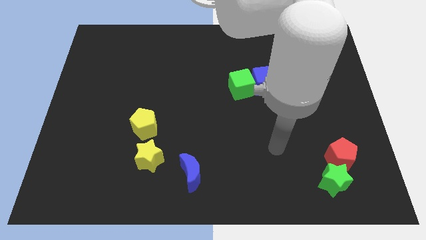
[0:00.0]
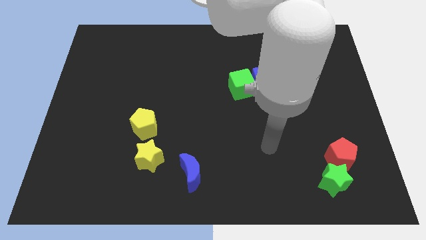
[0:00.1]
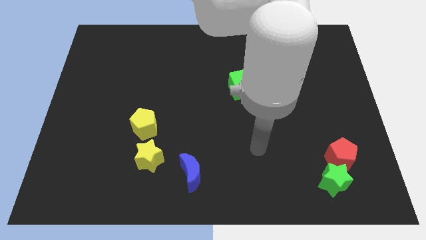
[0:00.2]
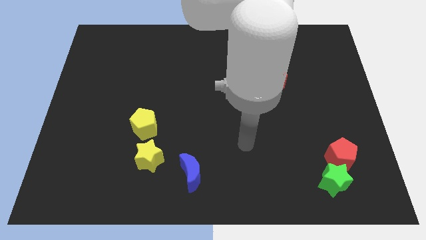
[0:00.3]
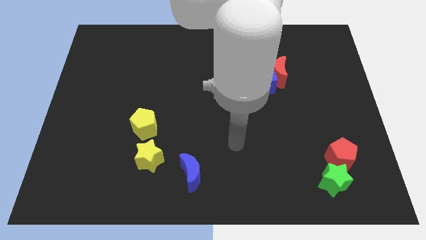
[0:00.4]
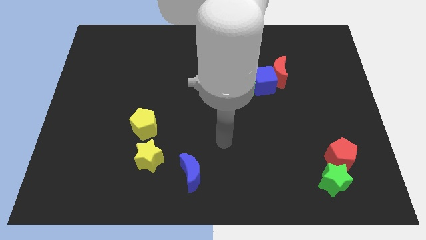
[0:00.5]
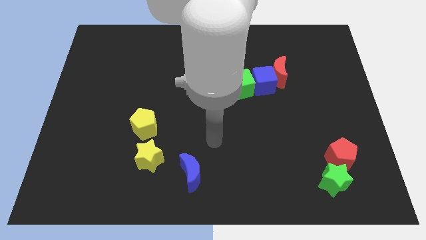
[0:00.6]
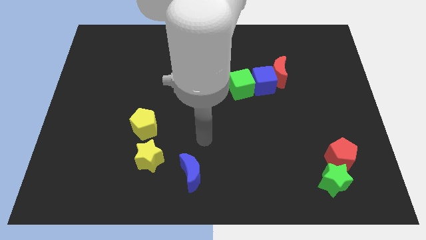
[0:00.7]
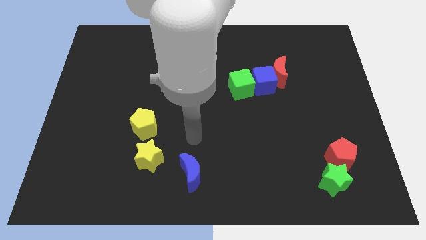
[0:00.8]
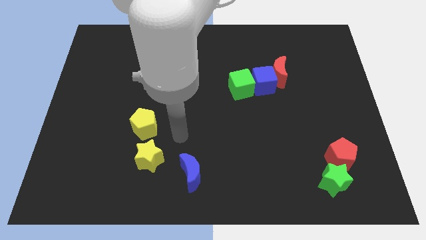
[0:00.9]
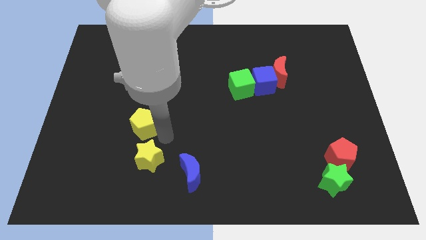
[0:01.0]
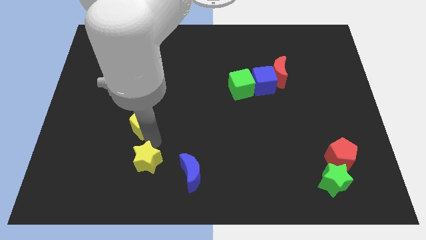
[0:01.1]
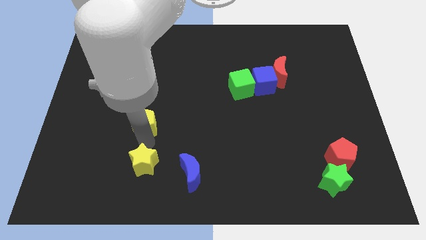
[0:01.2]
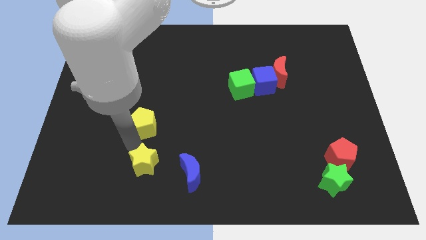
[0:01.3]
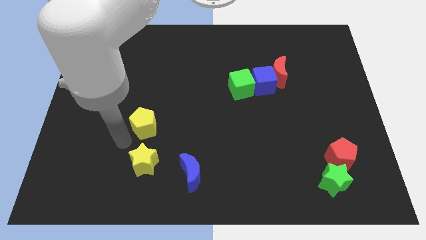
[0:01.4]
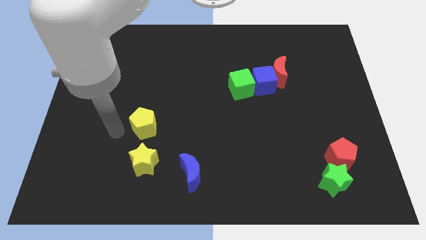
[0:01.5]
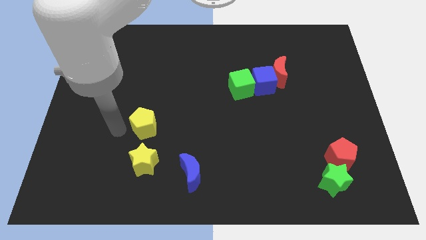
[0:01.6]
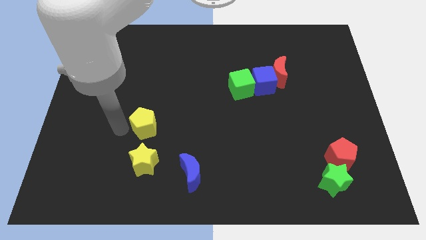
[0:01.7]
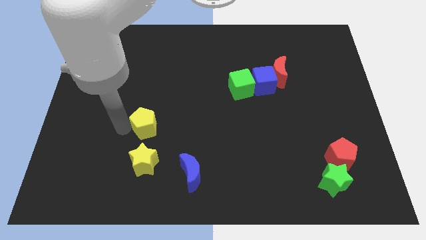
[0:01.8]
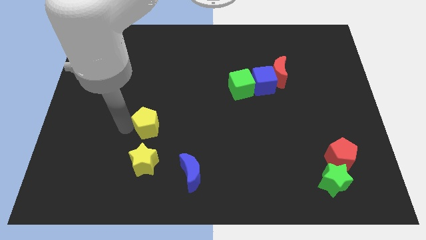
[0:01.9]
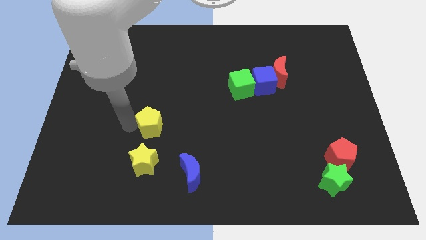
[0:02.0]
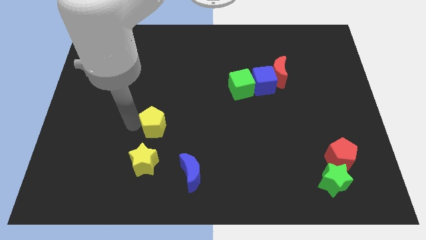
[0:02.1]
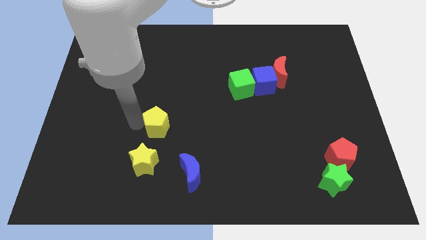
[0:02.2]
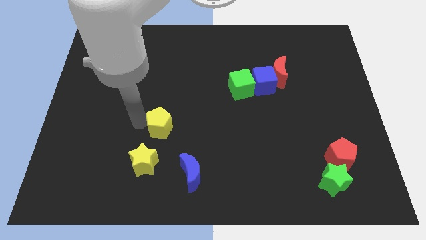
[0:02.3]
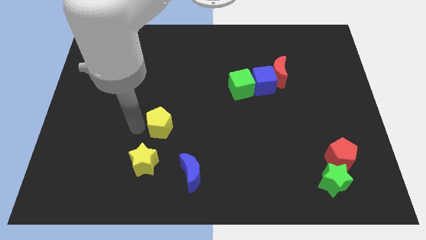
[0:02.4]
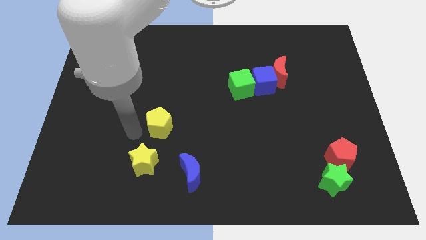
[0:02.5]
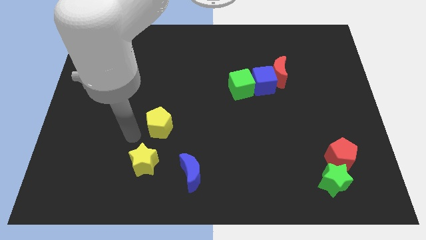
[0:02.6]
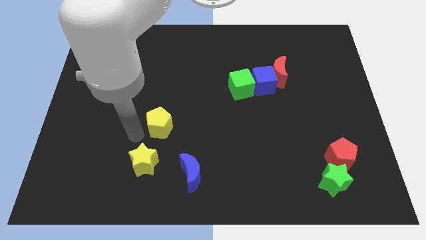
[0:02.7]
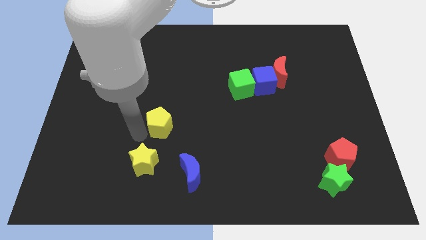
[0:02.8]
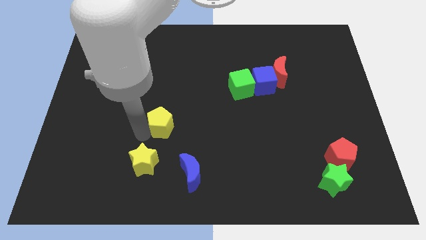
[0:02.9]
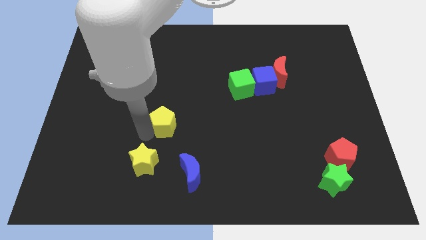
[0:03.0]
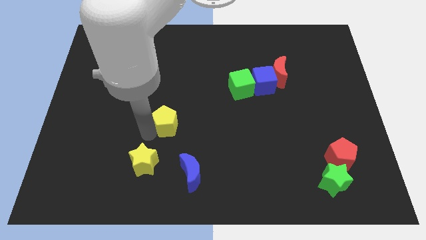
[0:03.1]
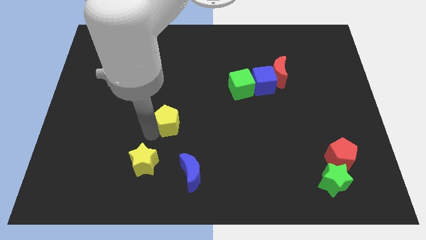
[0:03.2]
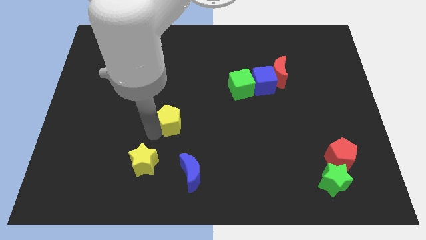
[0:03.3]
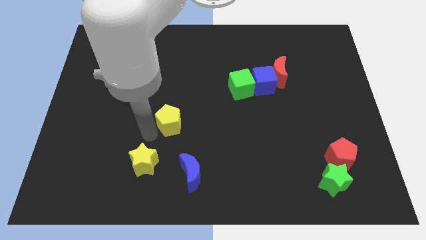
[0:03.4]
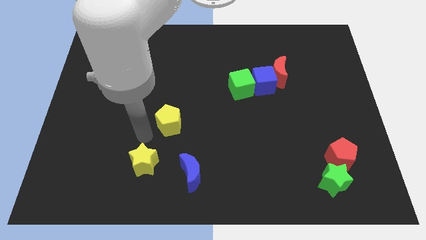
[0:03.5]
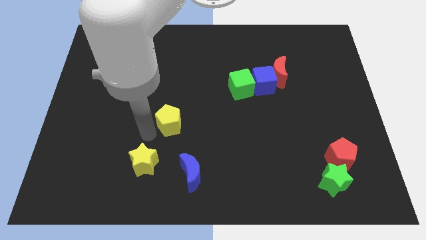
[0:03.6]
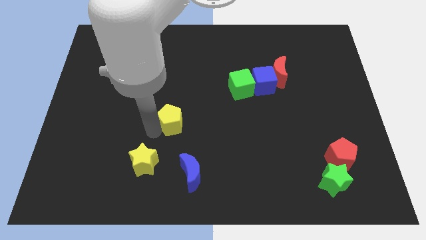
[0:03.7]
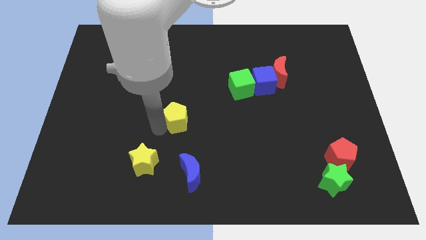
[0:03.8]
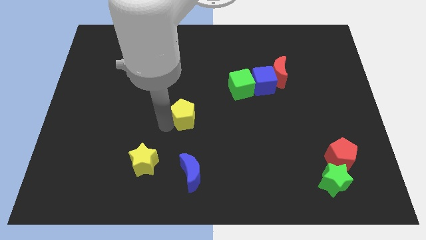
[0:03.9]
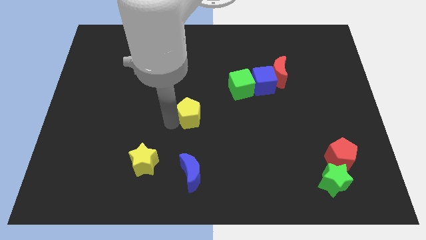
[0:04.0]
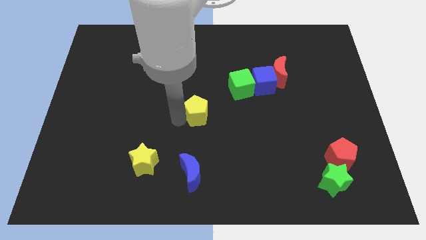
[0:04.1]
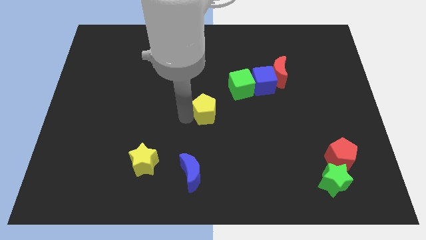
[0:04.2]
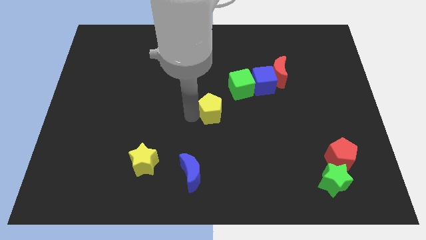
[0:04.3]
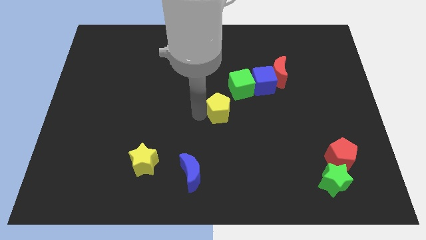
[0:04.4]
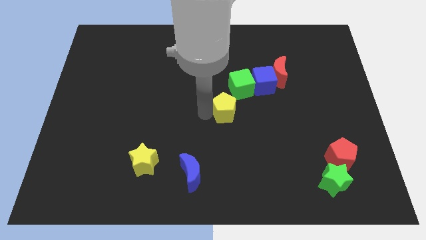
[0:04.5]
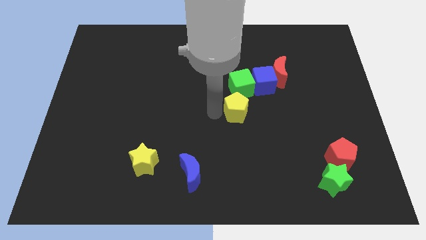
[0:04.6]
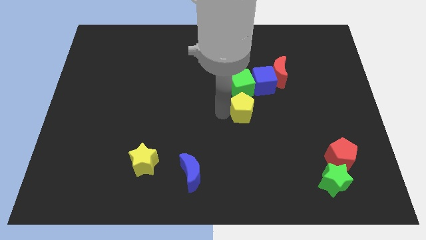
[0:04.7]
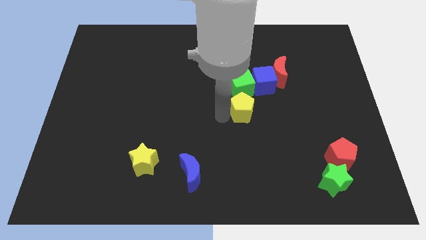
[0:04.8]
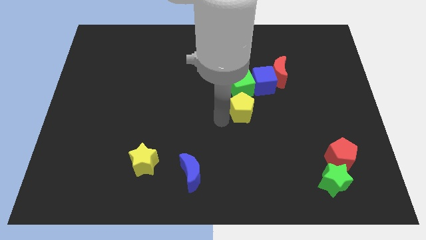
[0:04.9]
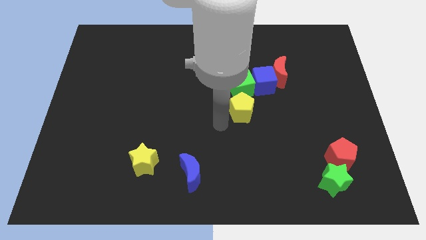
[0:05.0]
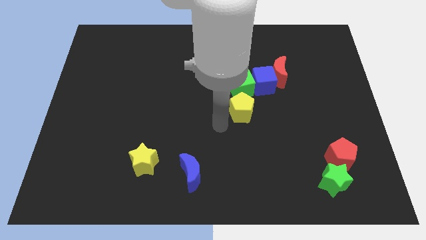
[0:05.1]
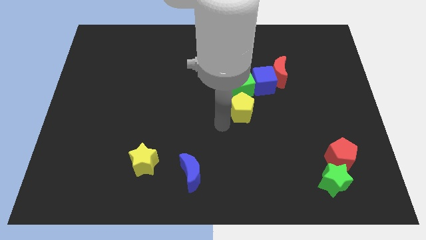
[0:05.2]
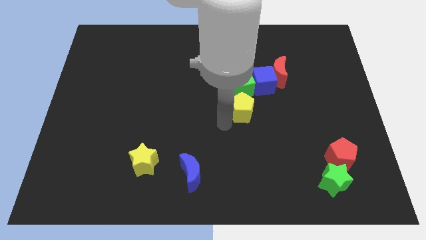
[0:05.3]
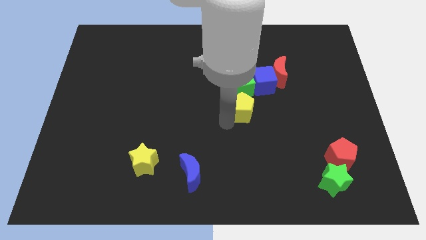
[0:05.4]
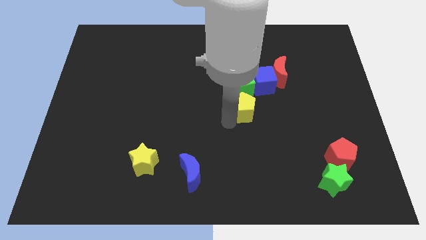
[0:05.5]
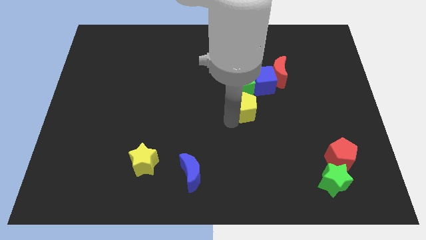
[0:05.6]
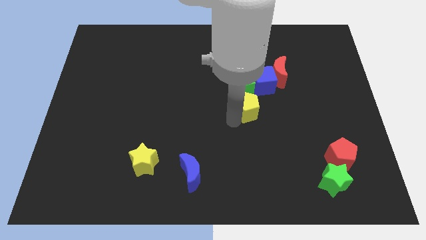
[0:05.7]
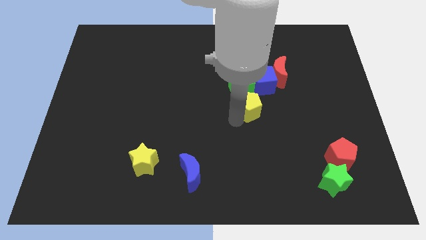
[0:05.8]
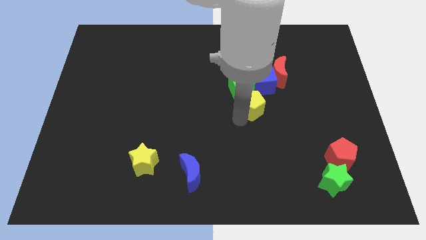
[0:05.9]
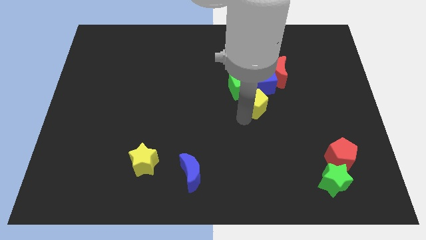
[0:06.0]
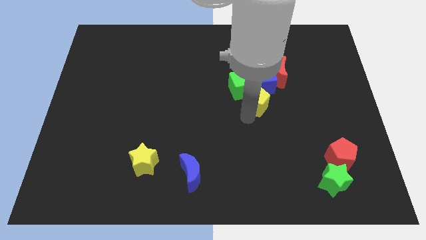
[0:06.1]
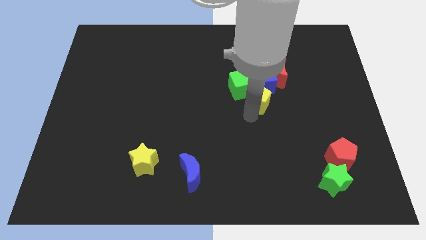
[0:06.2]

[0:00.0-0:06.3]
move the yellow pentagon towards the blue cube

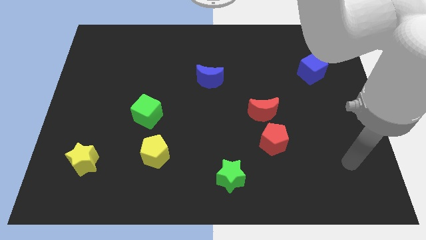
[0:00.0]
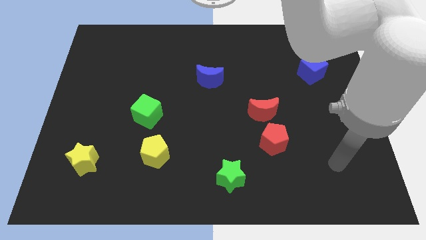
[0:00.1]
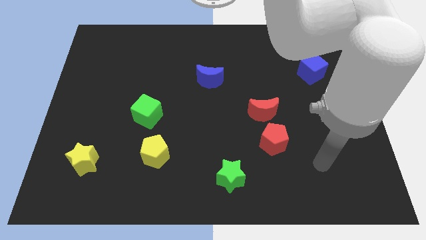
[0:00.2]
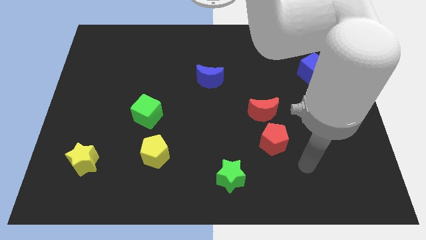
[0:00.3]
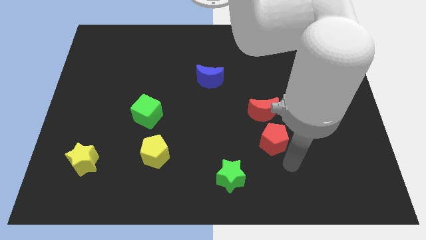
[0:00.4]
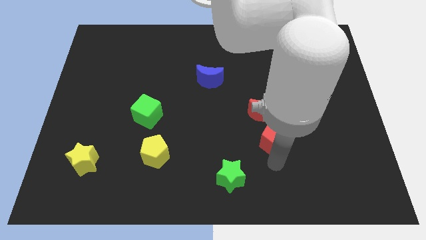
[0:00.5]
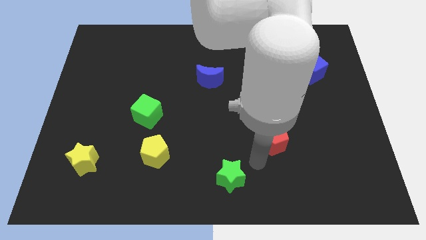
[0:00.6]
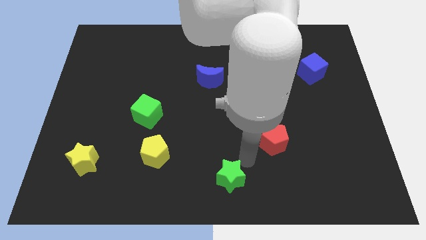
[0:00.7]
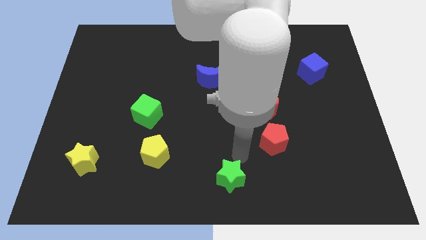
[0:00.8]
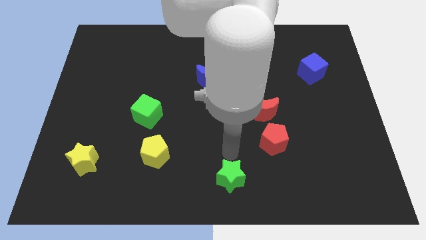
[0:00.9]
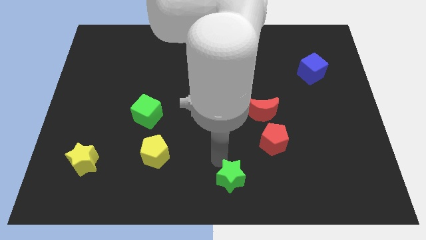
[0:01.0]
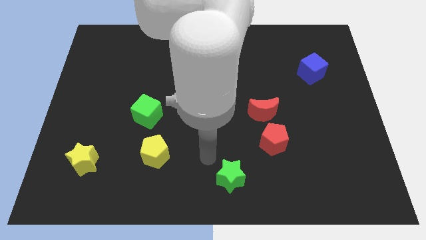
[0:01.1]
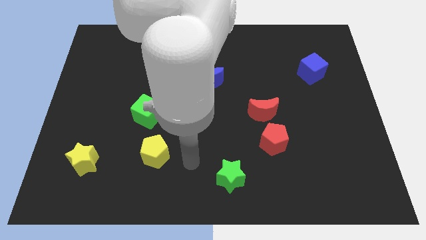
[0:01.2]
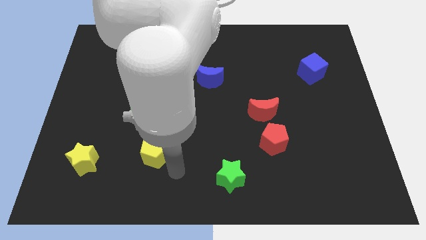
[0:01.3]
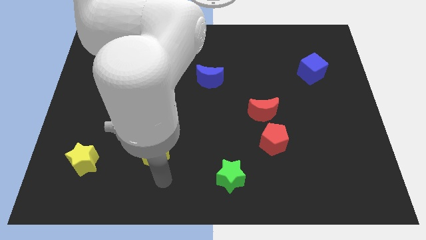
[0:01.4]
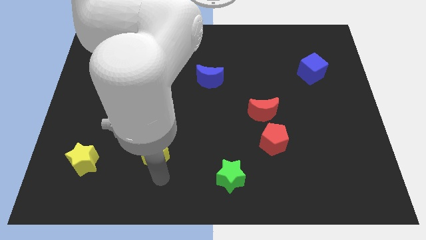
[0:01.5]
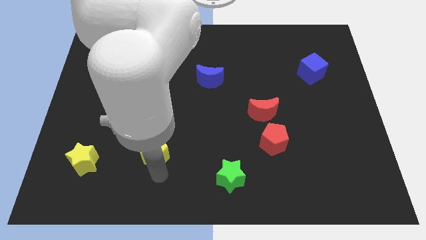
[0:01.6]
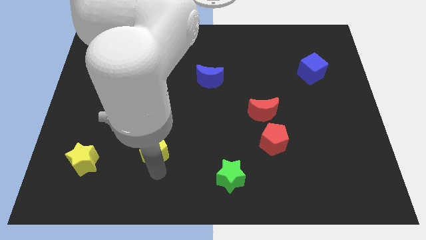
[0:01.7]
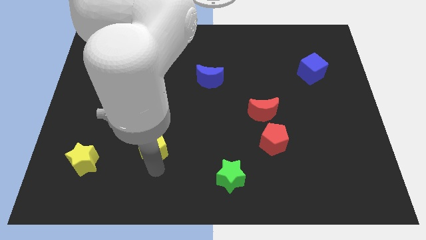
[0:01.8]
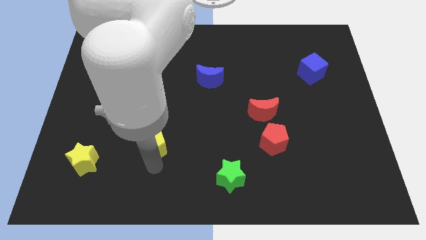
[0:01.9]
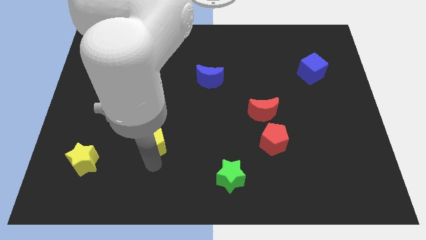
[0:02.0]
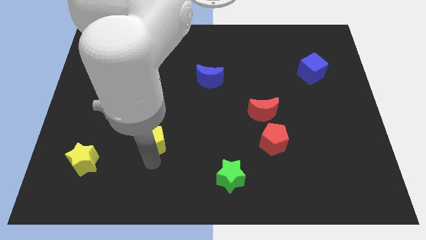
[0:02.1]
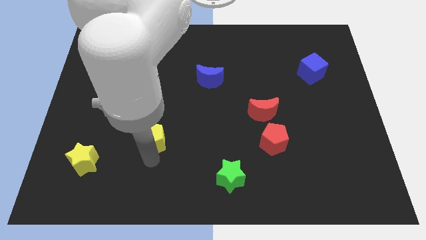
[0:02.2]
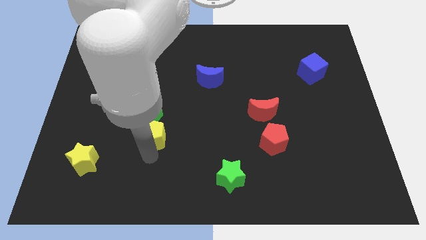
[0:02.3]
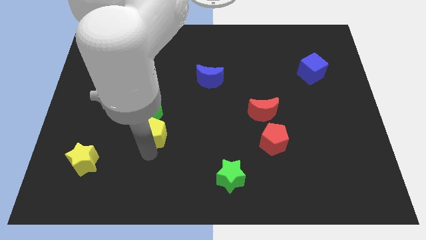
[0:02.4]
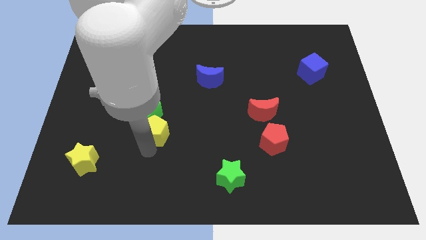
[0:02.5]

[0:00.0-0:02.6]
move the yellow pentagon next to the green cube
